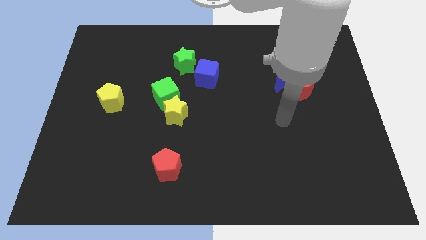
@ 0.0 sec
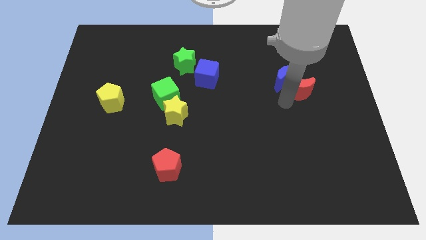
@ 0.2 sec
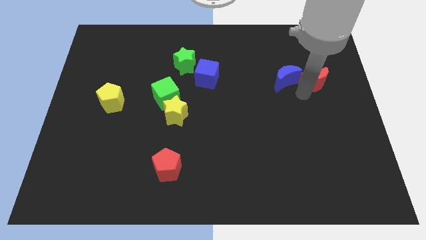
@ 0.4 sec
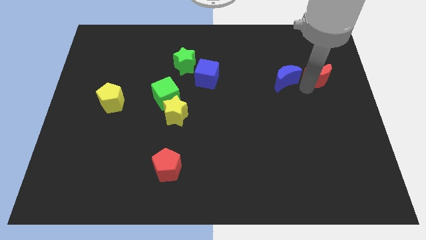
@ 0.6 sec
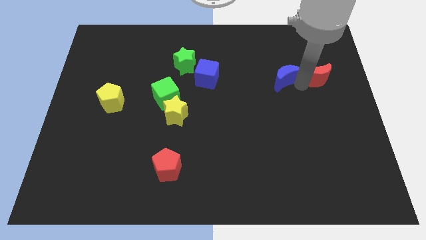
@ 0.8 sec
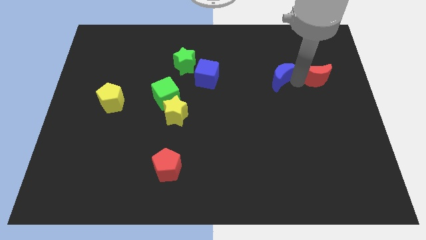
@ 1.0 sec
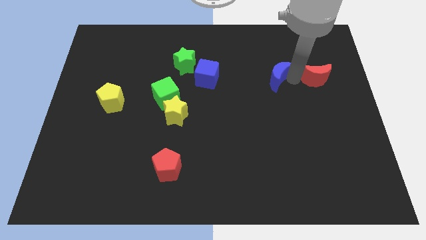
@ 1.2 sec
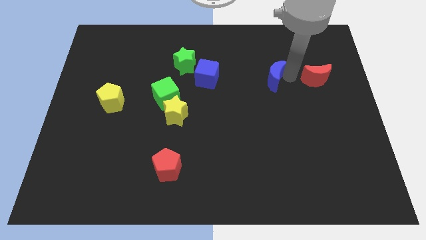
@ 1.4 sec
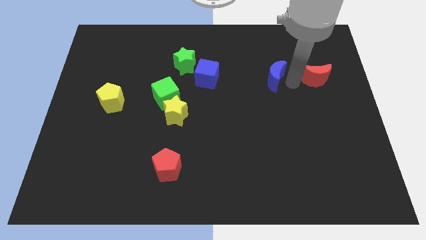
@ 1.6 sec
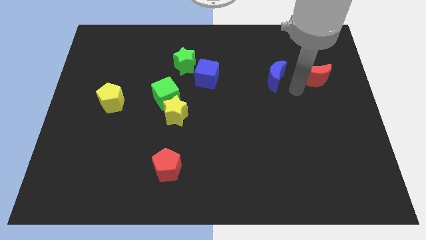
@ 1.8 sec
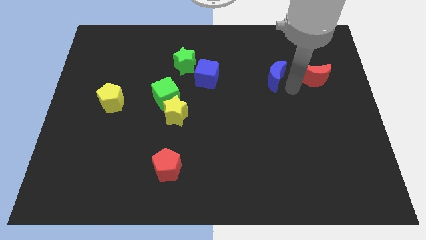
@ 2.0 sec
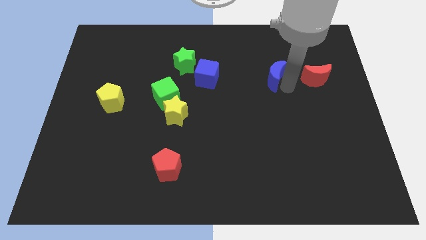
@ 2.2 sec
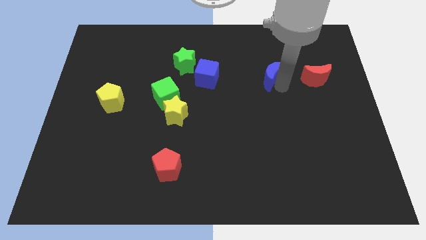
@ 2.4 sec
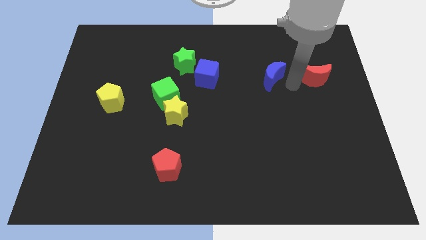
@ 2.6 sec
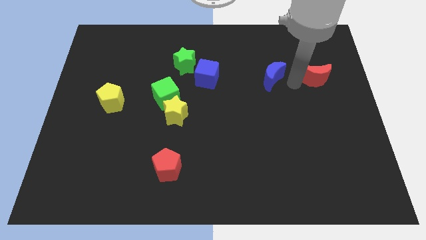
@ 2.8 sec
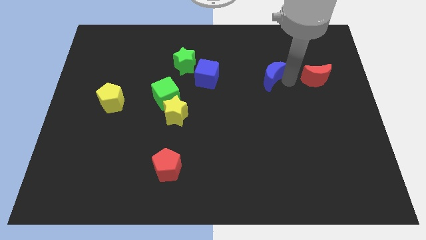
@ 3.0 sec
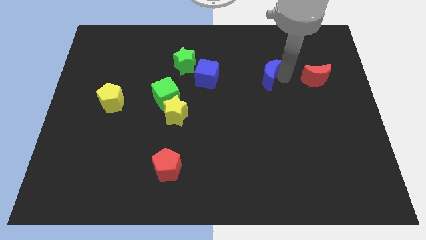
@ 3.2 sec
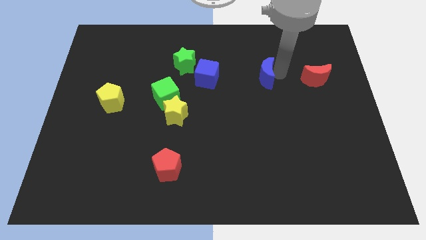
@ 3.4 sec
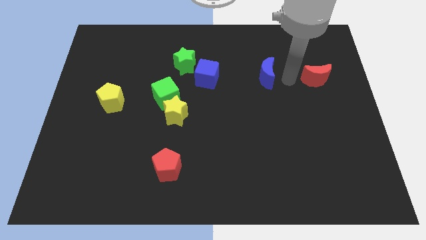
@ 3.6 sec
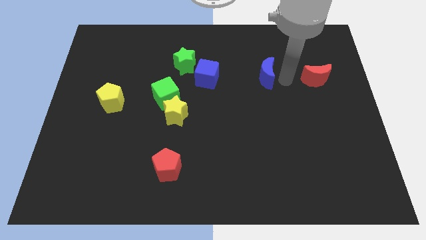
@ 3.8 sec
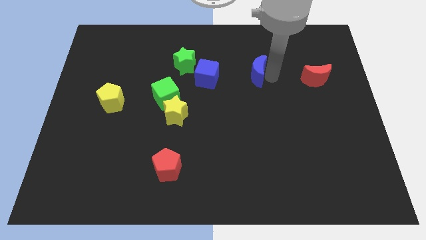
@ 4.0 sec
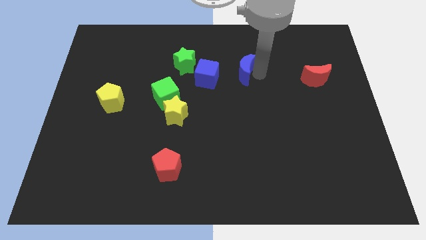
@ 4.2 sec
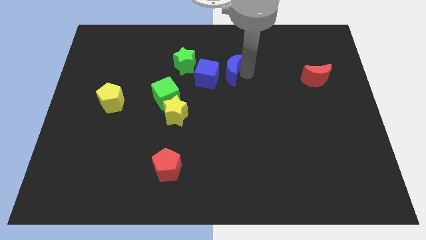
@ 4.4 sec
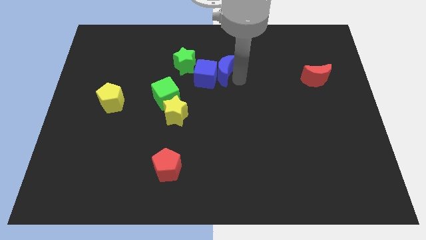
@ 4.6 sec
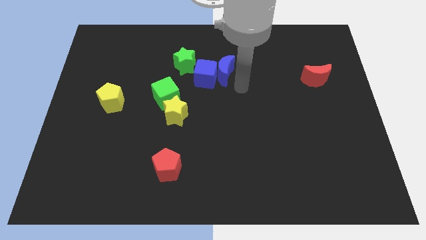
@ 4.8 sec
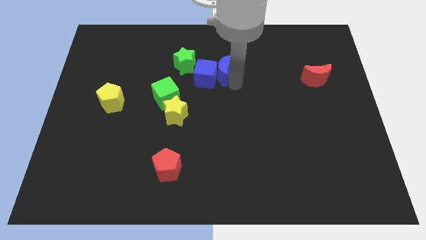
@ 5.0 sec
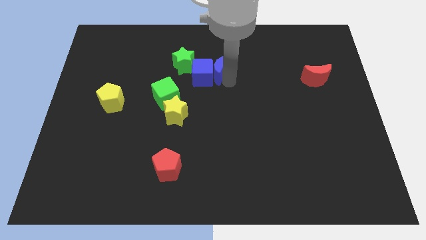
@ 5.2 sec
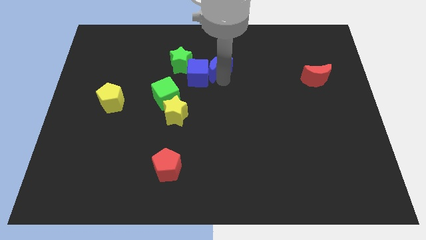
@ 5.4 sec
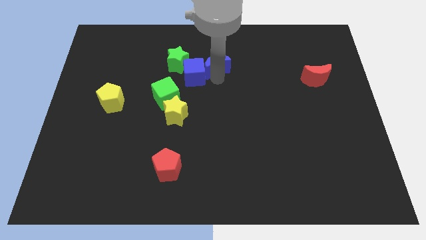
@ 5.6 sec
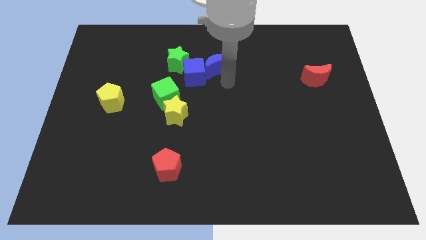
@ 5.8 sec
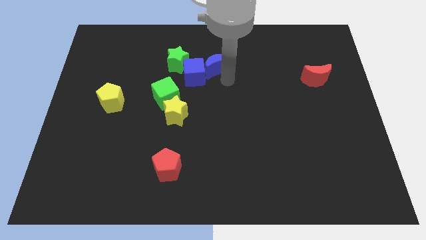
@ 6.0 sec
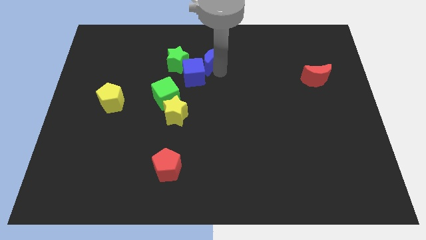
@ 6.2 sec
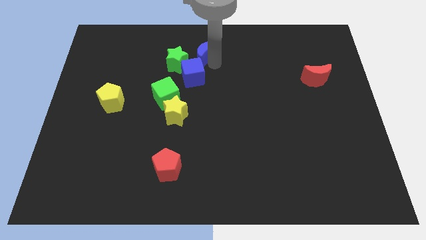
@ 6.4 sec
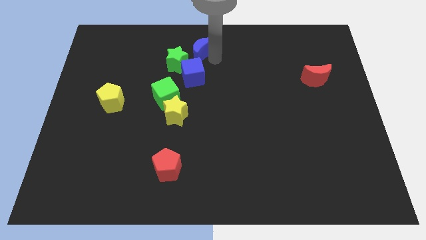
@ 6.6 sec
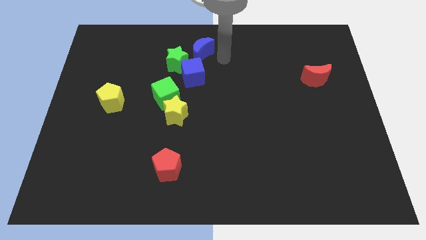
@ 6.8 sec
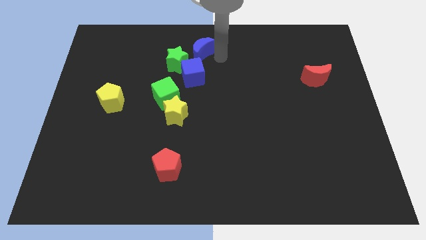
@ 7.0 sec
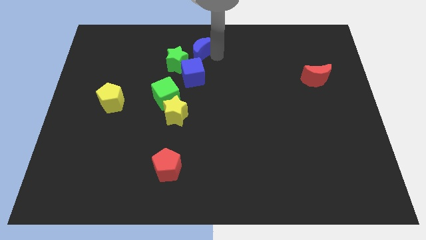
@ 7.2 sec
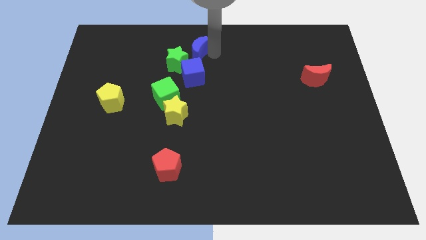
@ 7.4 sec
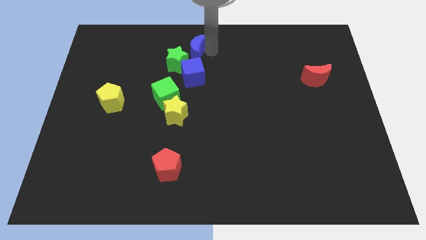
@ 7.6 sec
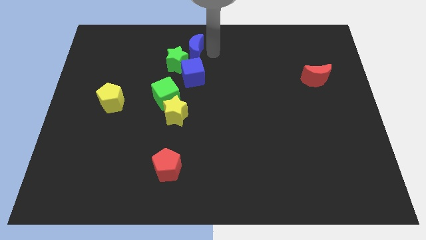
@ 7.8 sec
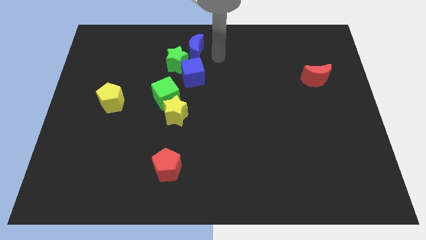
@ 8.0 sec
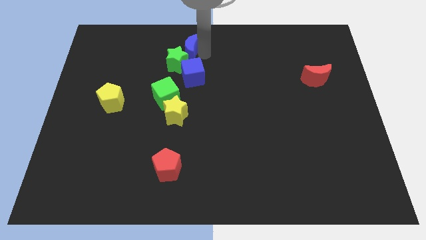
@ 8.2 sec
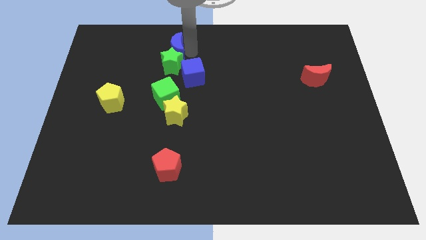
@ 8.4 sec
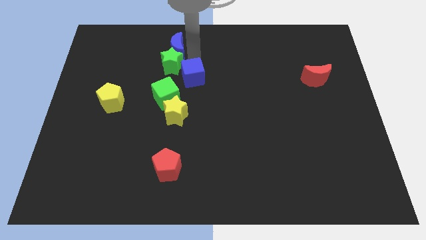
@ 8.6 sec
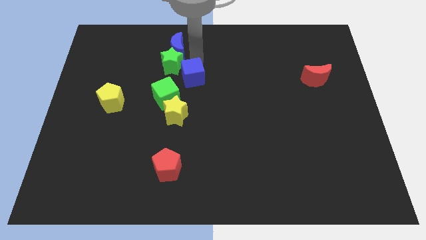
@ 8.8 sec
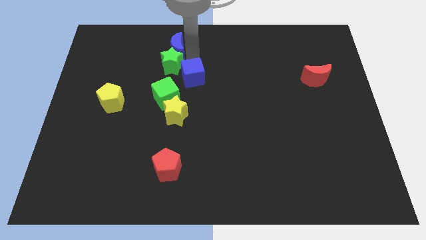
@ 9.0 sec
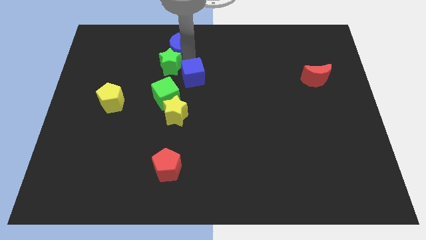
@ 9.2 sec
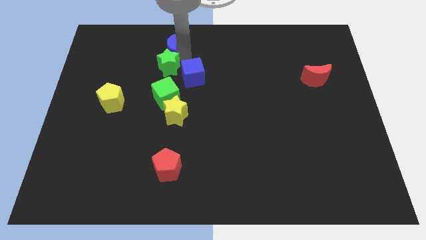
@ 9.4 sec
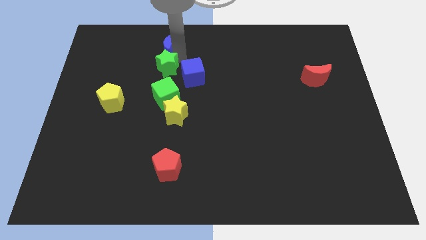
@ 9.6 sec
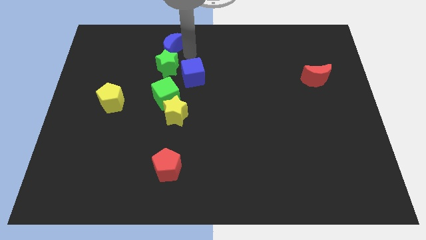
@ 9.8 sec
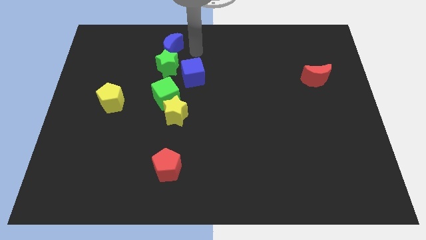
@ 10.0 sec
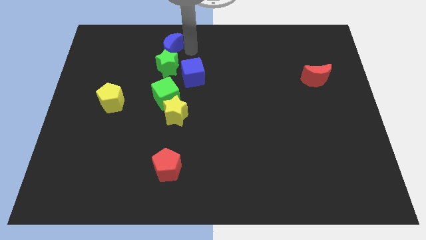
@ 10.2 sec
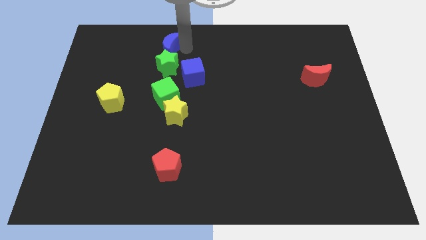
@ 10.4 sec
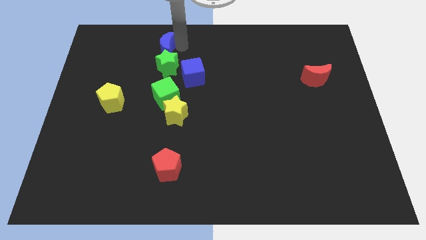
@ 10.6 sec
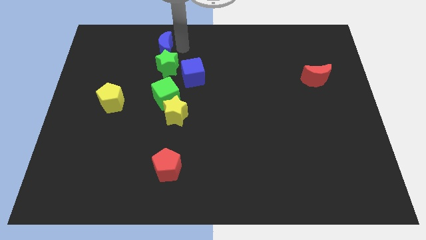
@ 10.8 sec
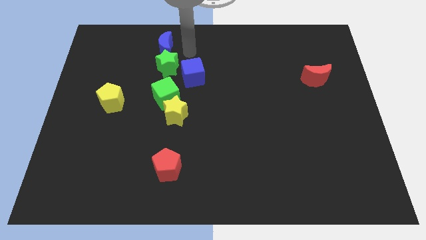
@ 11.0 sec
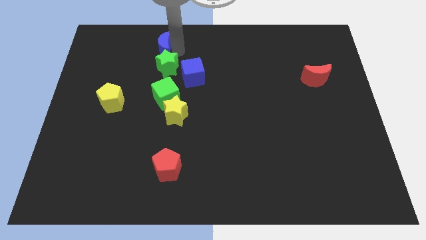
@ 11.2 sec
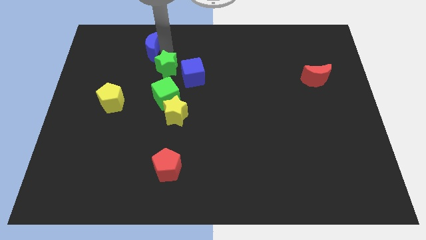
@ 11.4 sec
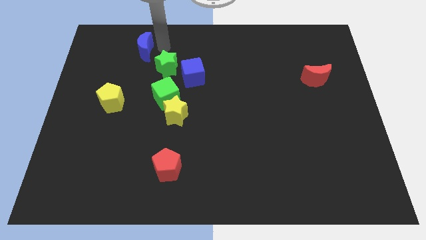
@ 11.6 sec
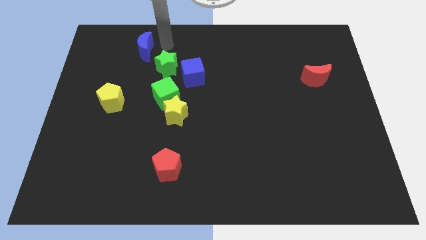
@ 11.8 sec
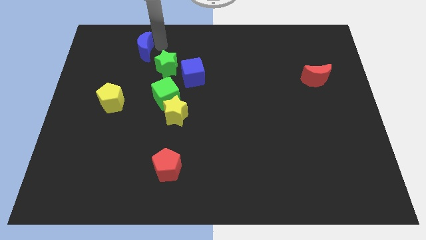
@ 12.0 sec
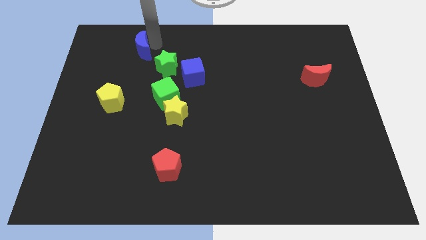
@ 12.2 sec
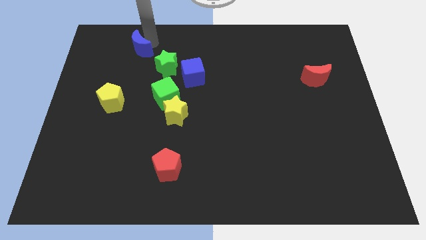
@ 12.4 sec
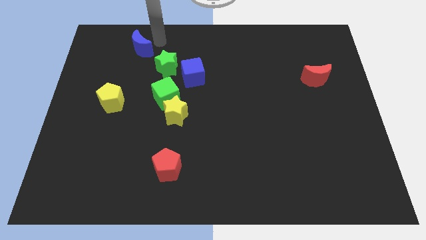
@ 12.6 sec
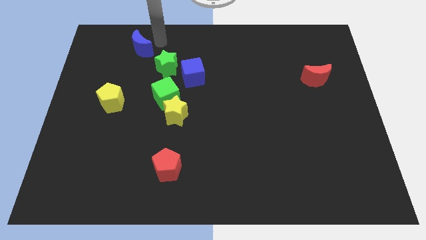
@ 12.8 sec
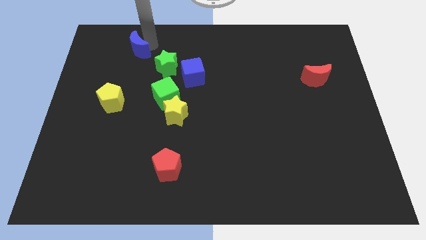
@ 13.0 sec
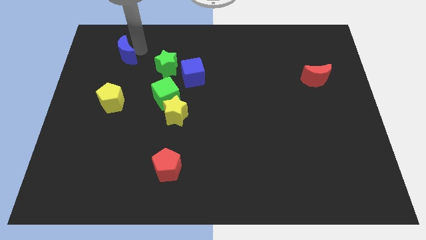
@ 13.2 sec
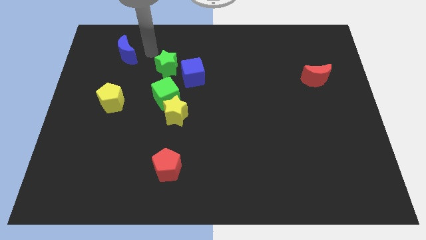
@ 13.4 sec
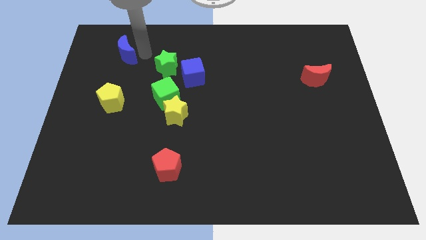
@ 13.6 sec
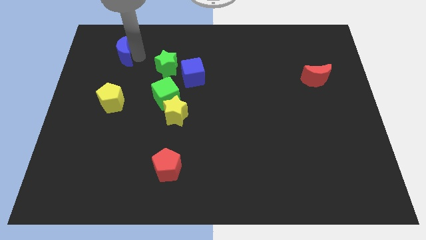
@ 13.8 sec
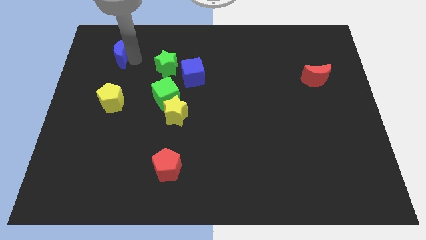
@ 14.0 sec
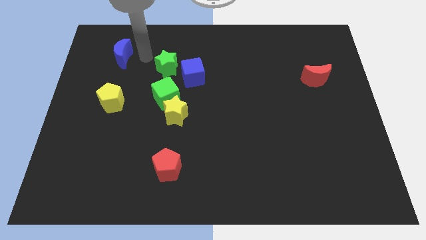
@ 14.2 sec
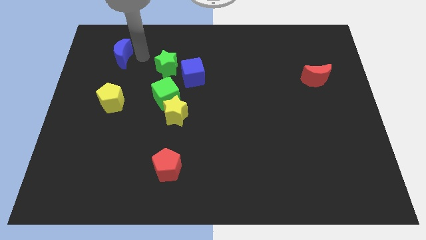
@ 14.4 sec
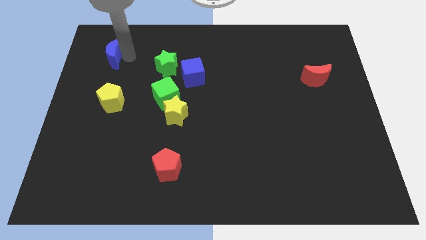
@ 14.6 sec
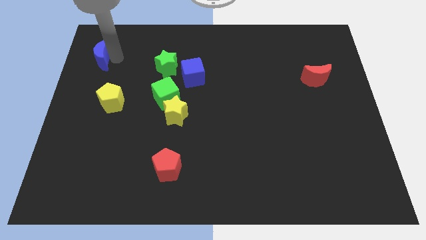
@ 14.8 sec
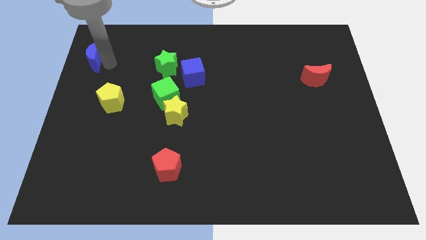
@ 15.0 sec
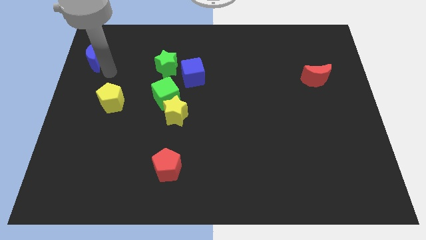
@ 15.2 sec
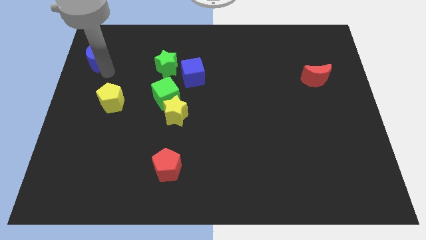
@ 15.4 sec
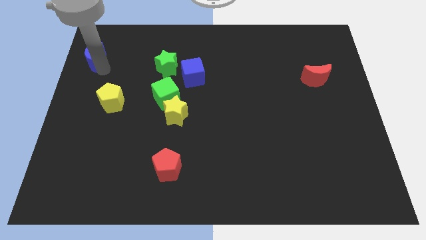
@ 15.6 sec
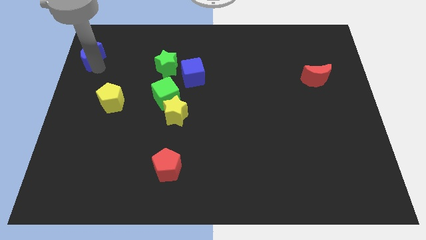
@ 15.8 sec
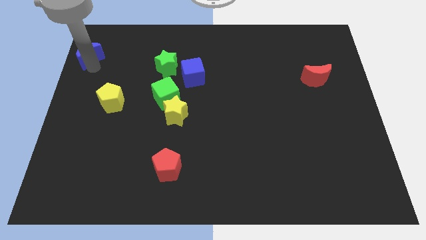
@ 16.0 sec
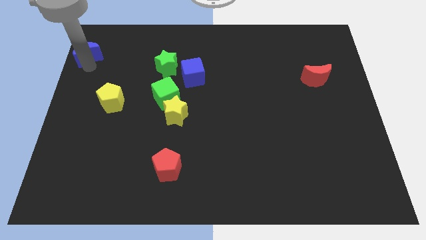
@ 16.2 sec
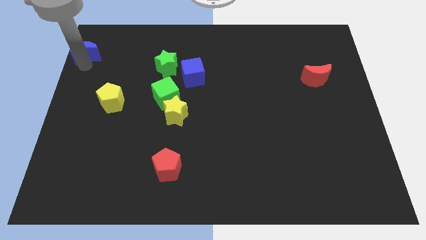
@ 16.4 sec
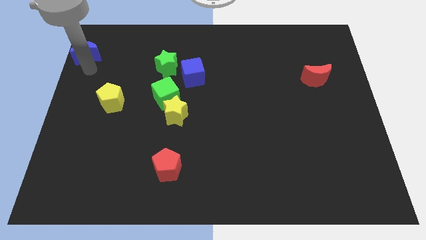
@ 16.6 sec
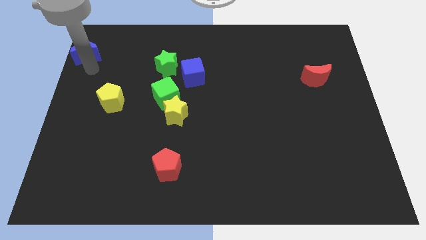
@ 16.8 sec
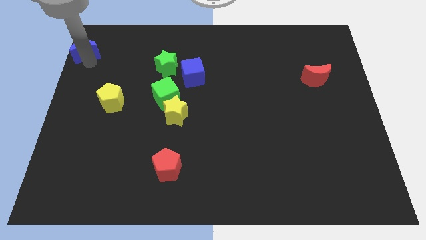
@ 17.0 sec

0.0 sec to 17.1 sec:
move the blue moon to the top left
